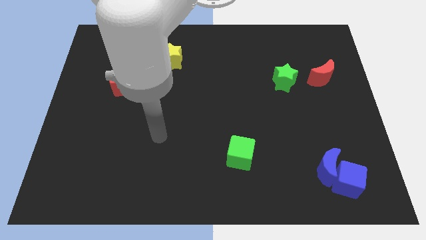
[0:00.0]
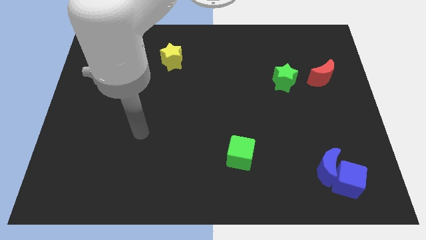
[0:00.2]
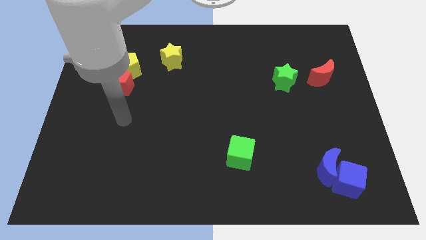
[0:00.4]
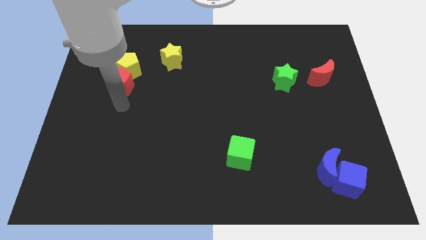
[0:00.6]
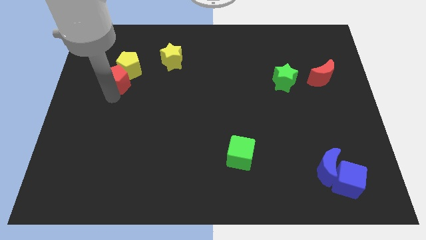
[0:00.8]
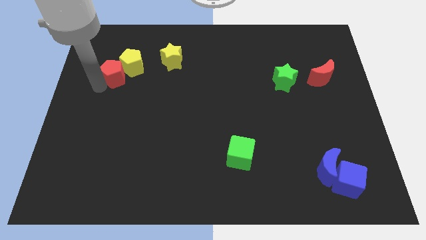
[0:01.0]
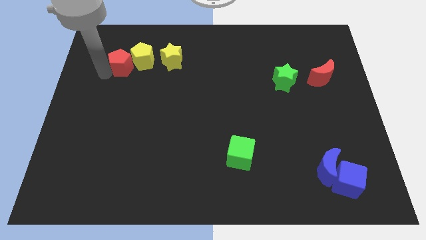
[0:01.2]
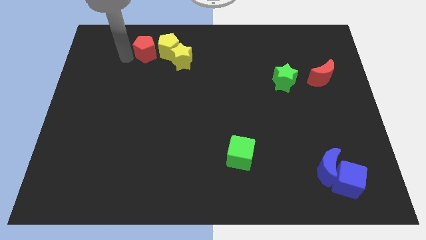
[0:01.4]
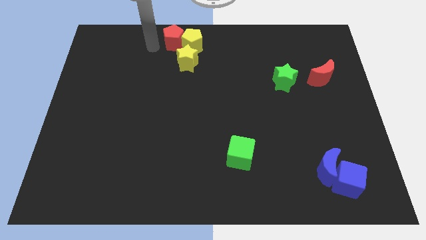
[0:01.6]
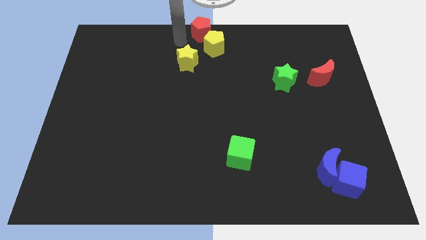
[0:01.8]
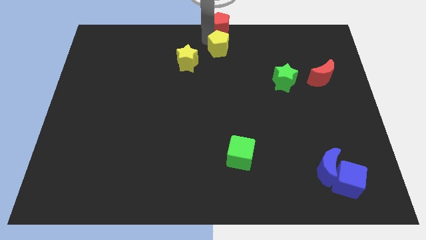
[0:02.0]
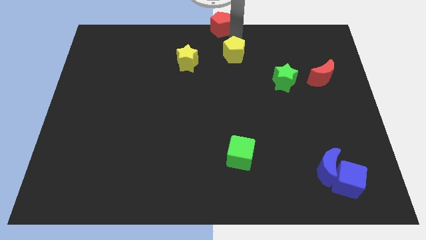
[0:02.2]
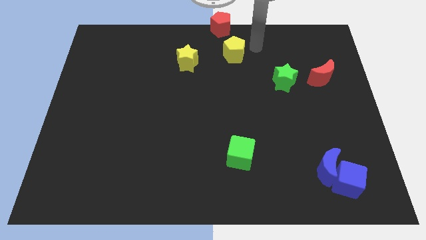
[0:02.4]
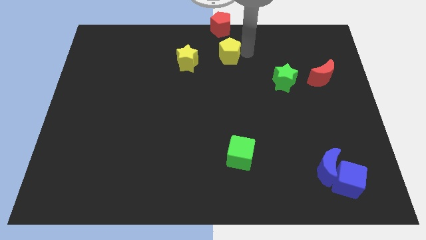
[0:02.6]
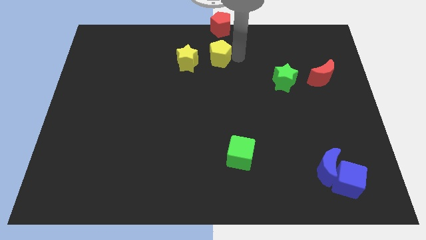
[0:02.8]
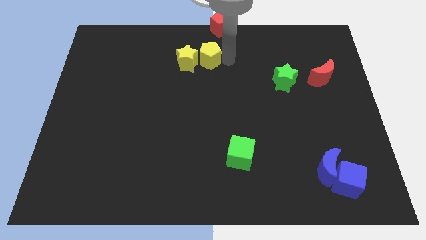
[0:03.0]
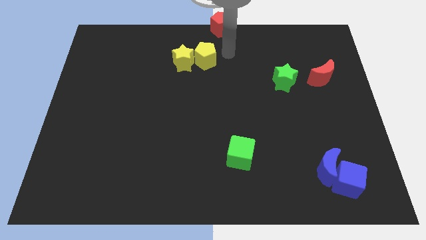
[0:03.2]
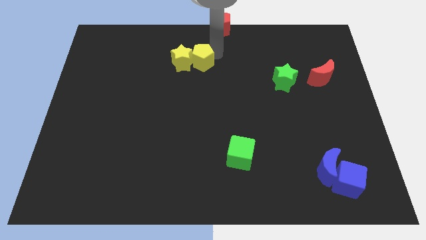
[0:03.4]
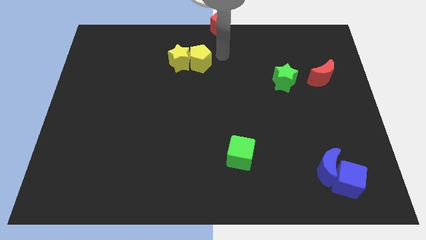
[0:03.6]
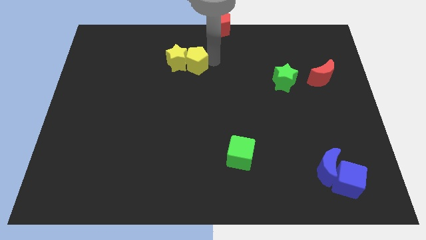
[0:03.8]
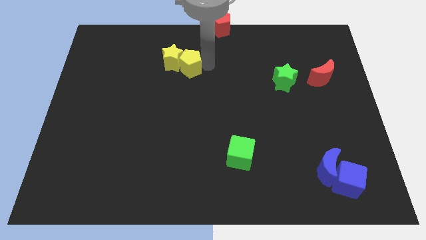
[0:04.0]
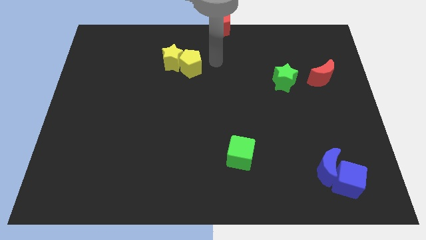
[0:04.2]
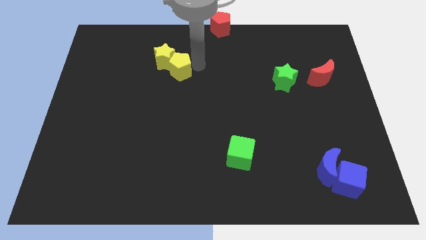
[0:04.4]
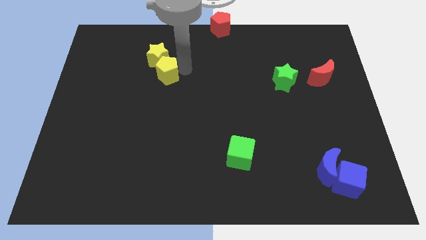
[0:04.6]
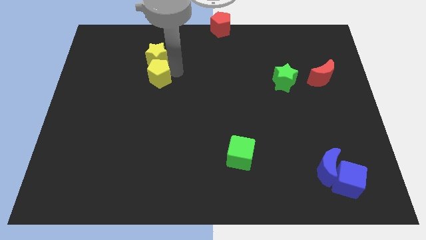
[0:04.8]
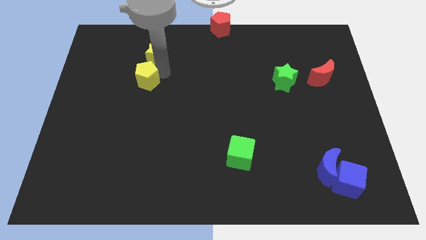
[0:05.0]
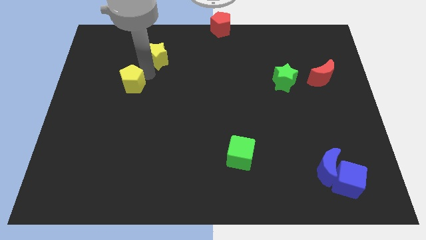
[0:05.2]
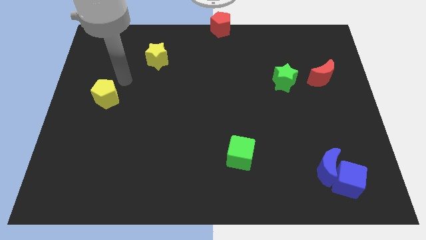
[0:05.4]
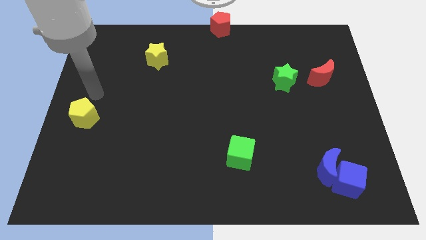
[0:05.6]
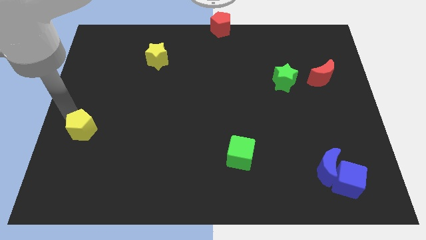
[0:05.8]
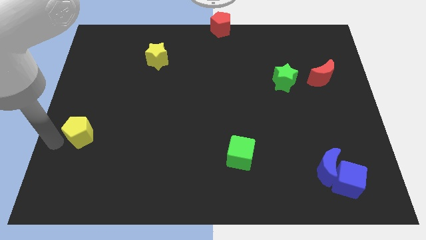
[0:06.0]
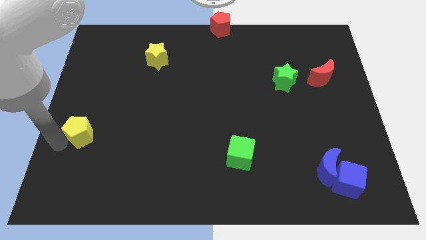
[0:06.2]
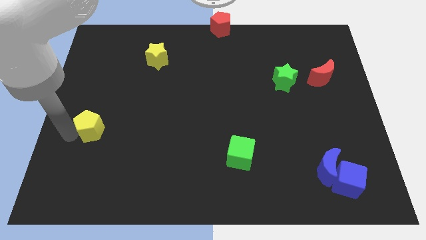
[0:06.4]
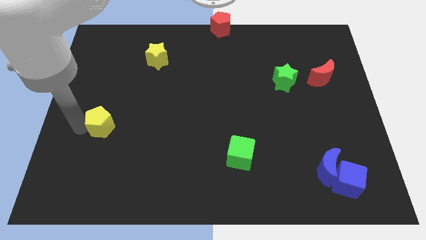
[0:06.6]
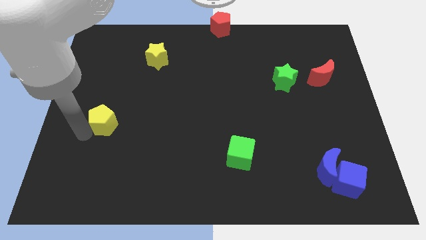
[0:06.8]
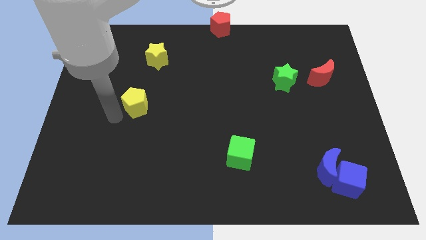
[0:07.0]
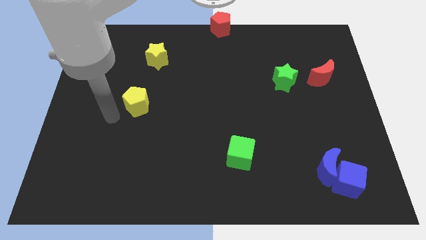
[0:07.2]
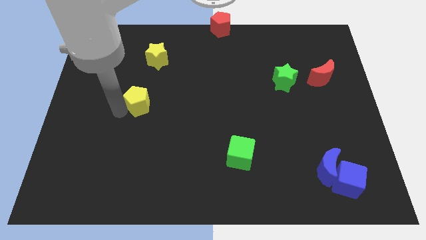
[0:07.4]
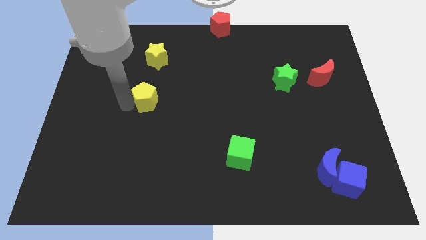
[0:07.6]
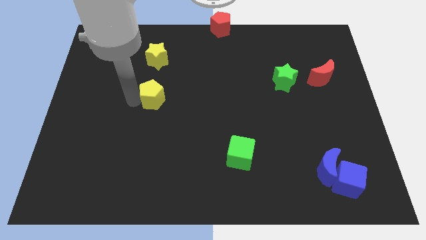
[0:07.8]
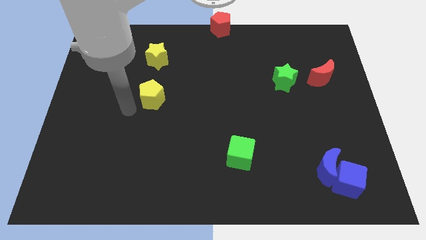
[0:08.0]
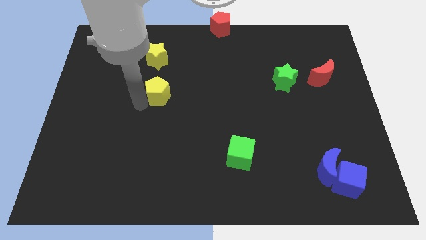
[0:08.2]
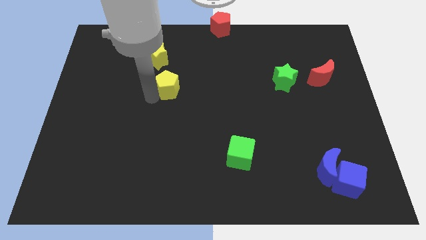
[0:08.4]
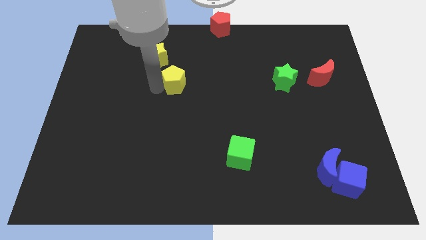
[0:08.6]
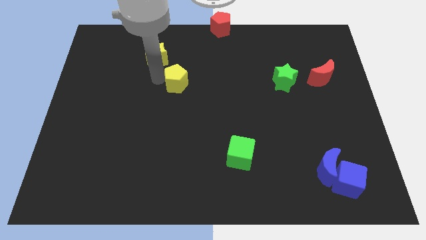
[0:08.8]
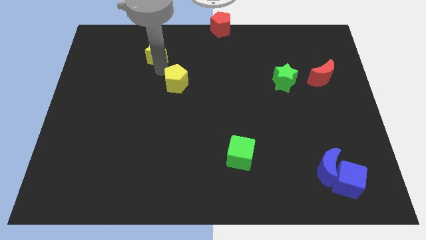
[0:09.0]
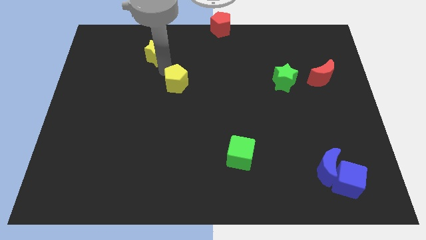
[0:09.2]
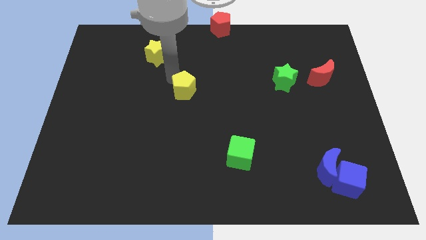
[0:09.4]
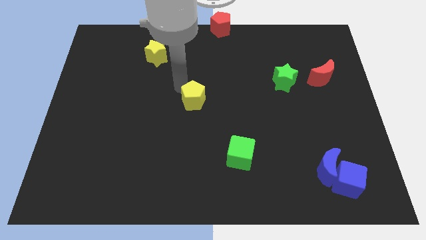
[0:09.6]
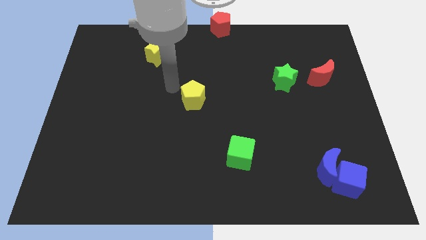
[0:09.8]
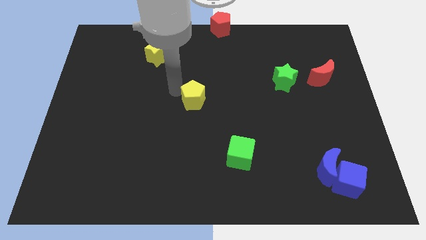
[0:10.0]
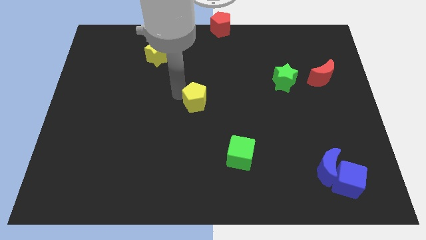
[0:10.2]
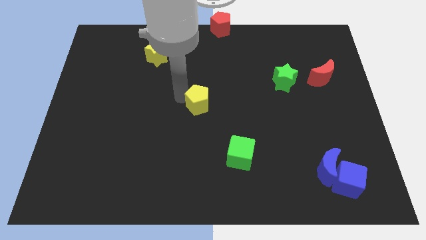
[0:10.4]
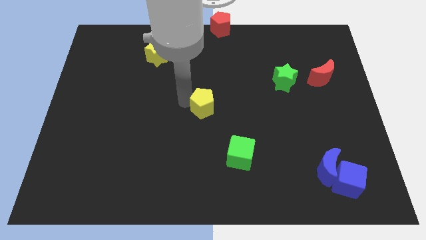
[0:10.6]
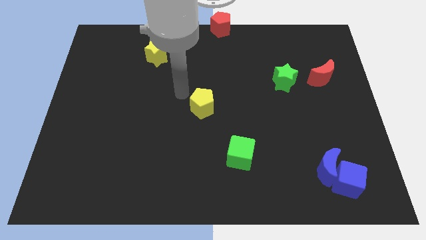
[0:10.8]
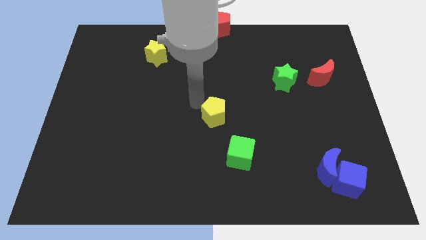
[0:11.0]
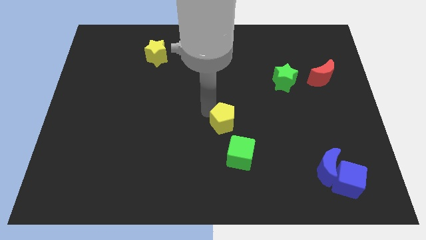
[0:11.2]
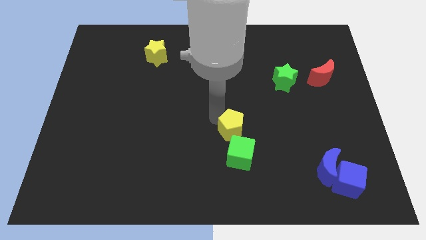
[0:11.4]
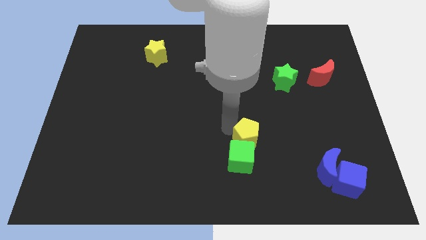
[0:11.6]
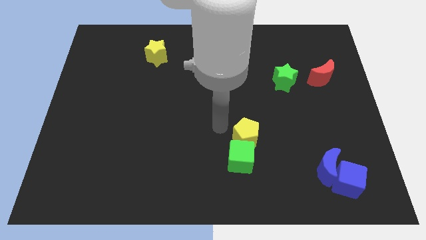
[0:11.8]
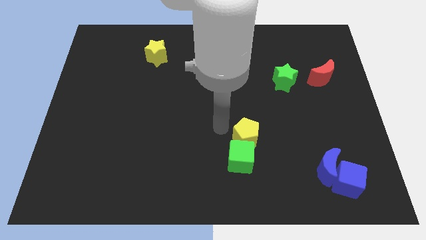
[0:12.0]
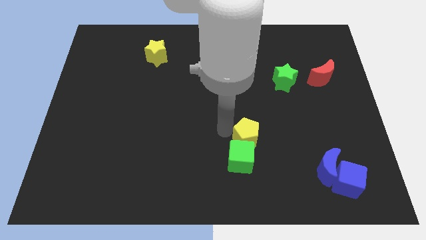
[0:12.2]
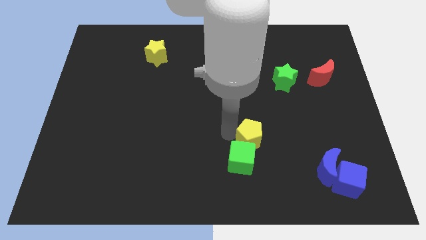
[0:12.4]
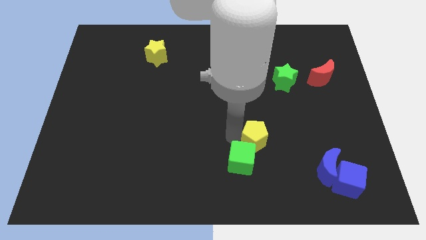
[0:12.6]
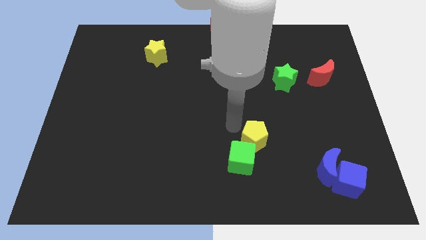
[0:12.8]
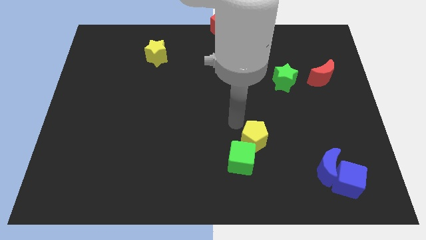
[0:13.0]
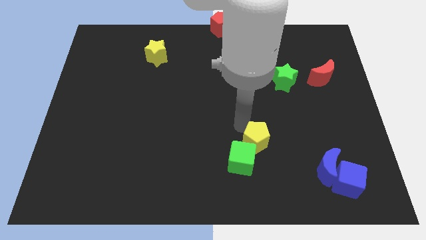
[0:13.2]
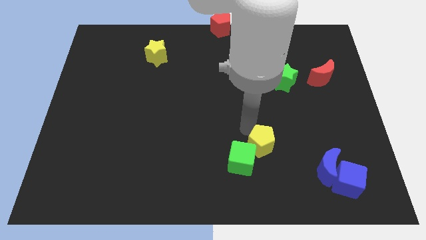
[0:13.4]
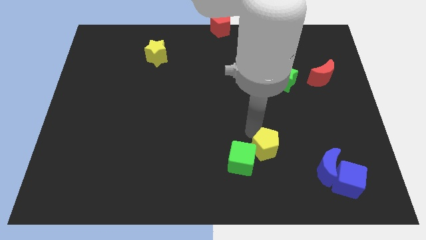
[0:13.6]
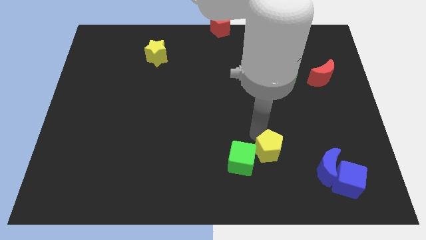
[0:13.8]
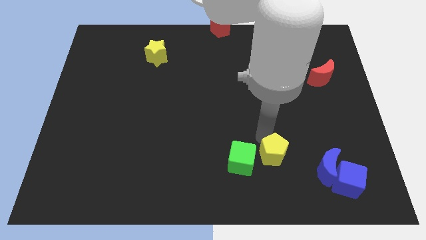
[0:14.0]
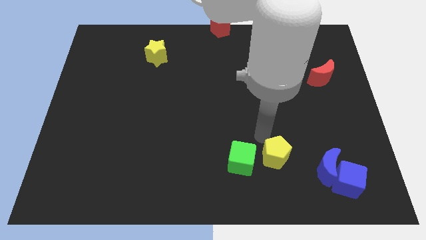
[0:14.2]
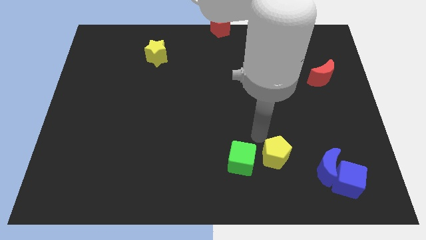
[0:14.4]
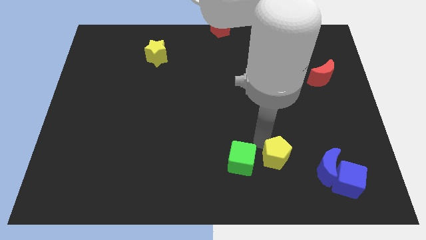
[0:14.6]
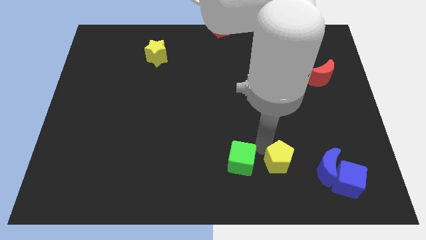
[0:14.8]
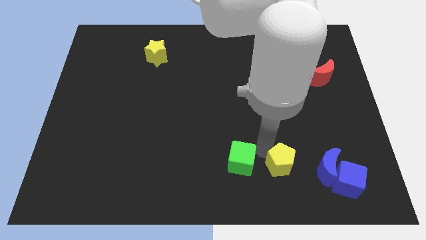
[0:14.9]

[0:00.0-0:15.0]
put the yellow pentagon to the left side of the blue cube
